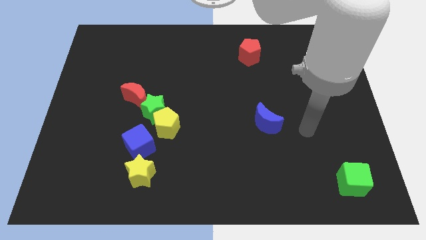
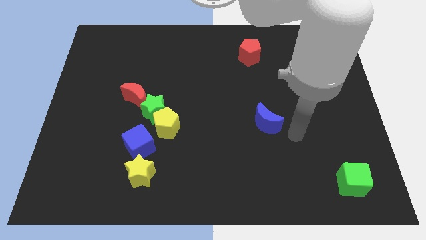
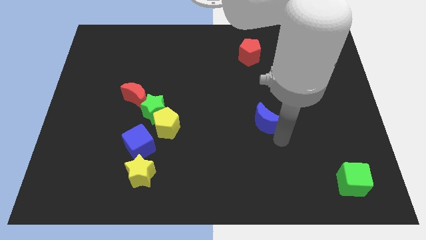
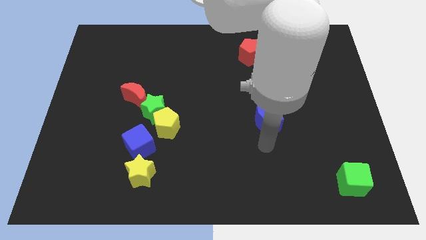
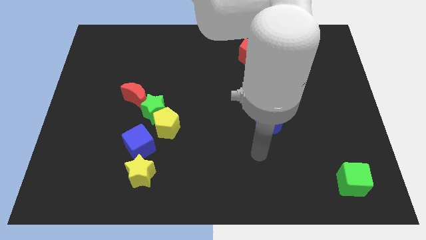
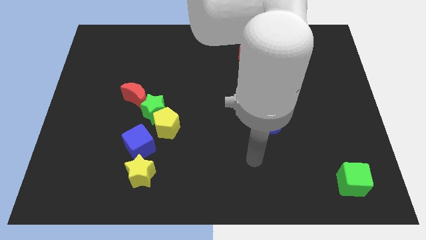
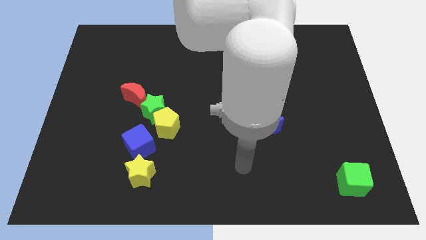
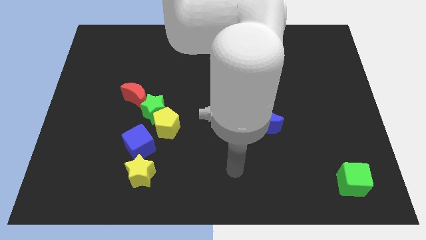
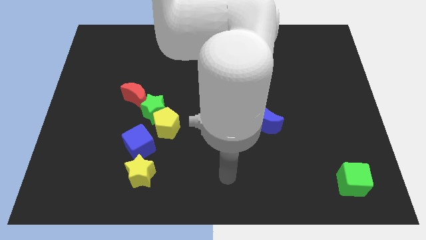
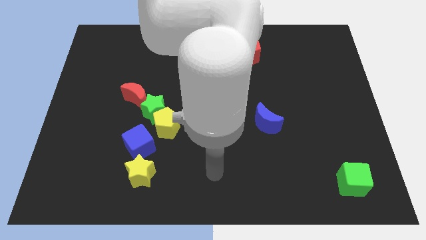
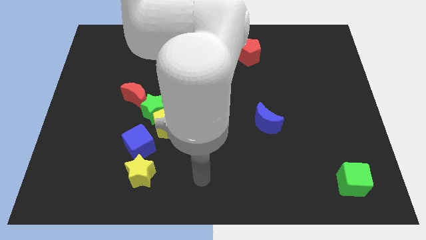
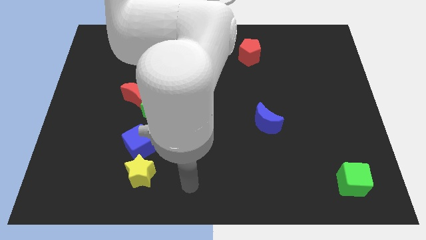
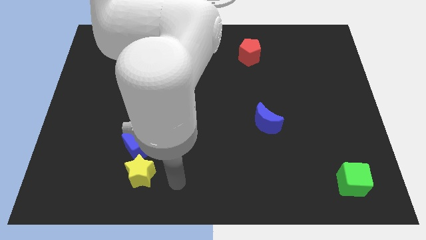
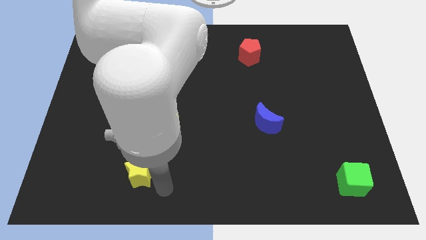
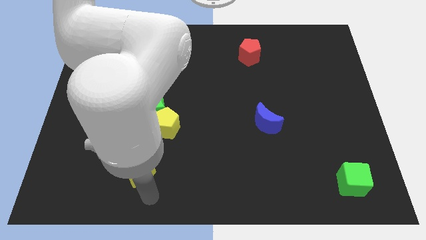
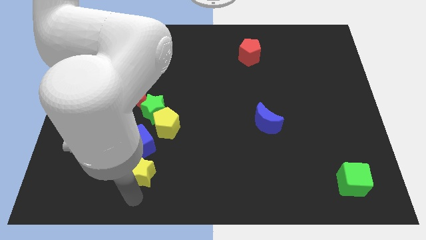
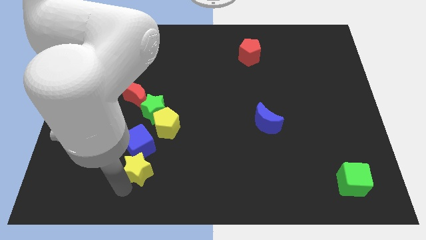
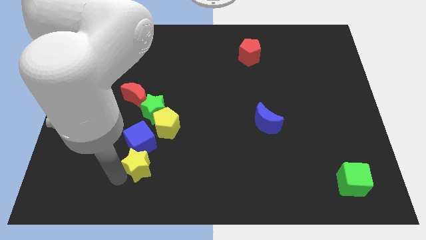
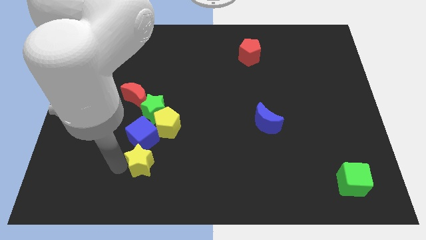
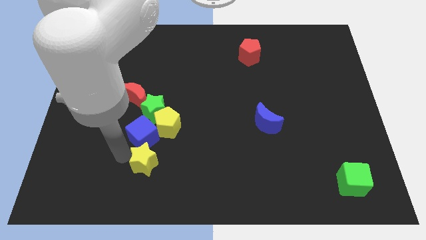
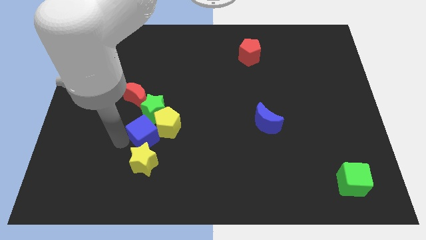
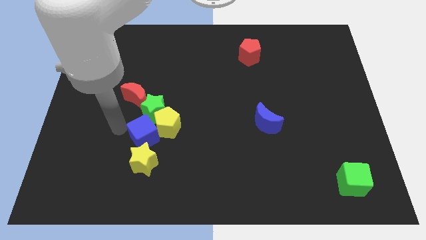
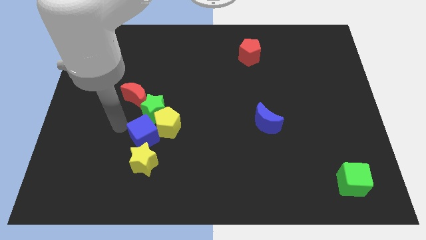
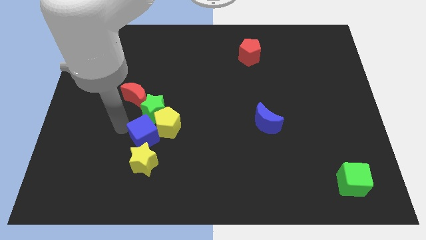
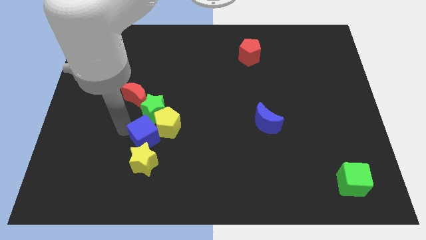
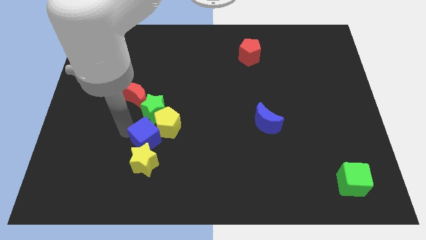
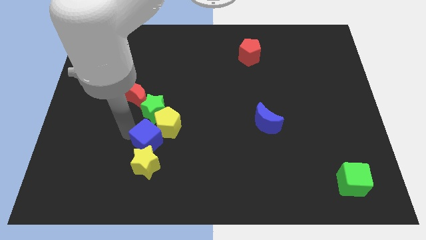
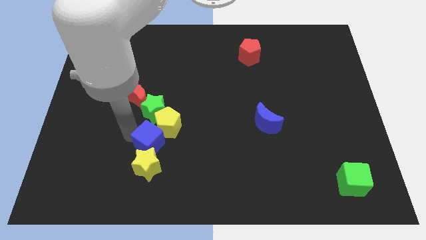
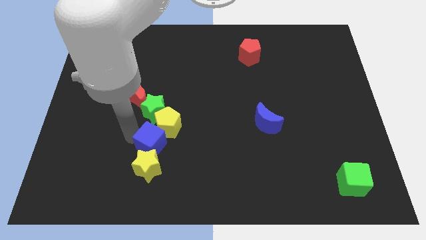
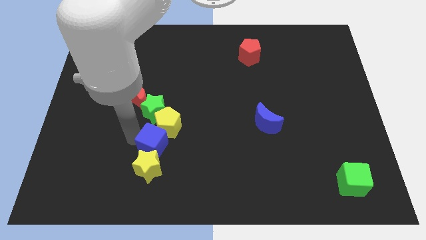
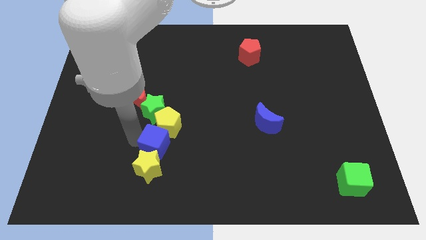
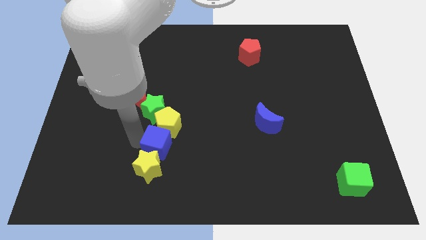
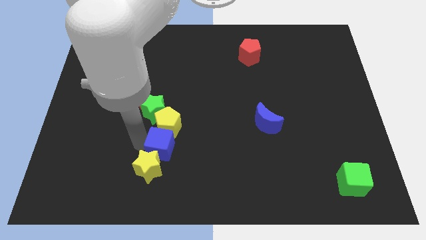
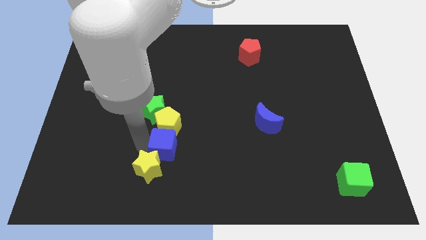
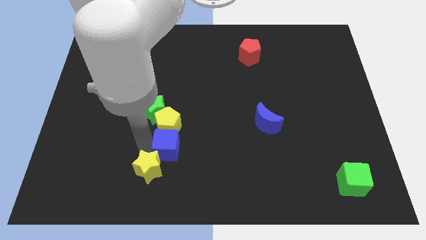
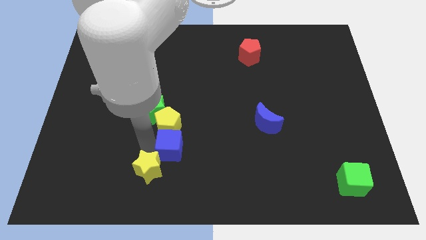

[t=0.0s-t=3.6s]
move the blue cube to the right slightly

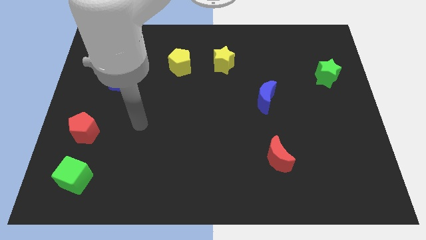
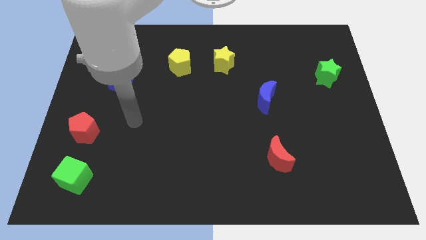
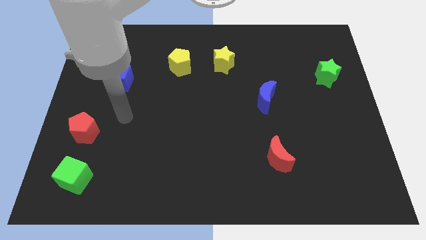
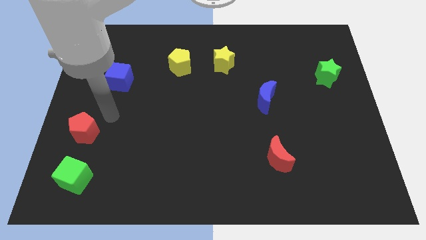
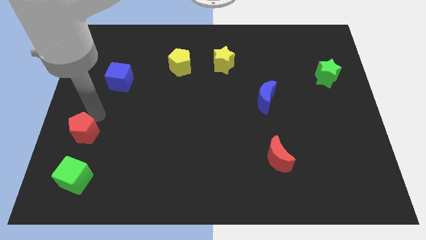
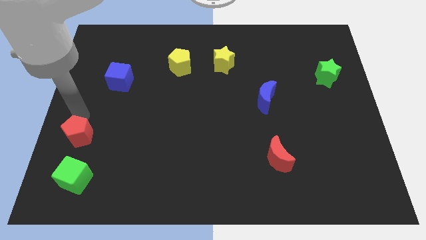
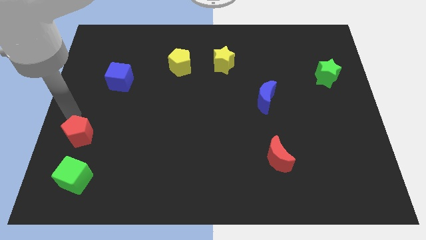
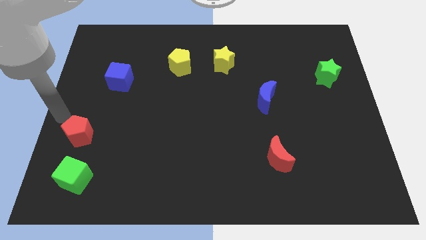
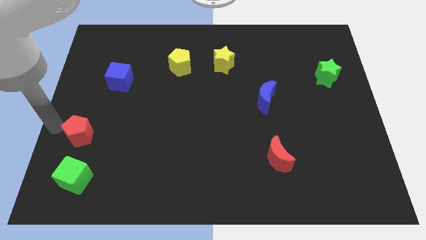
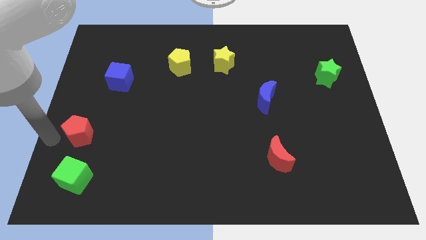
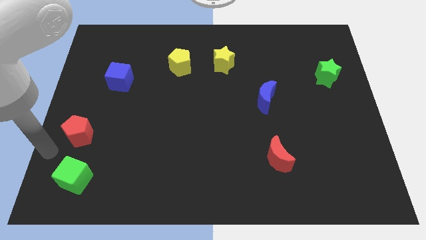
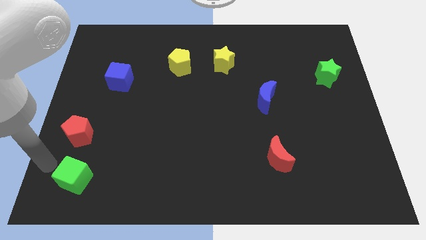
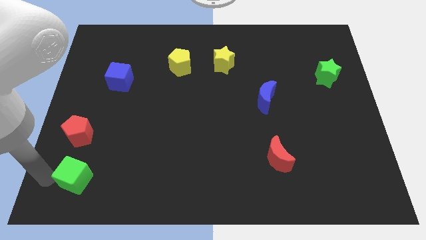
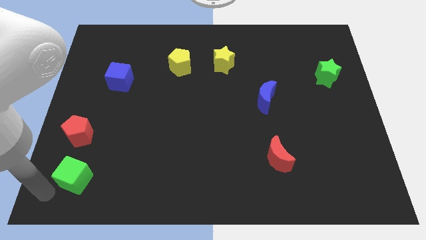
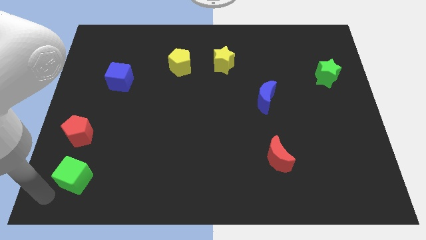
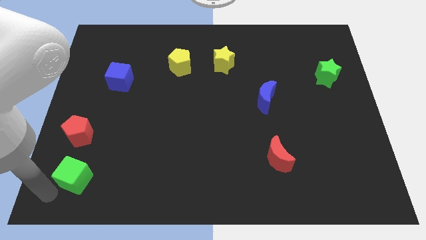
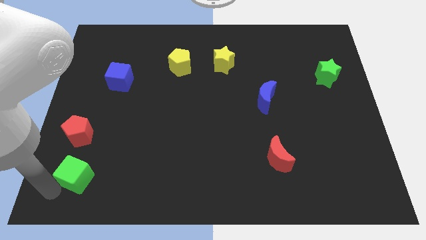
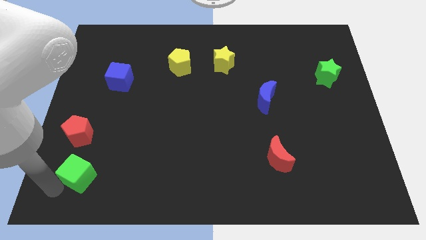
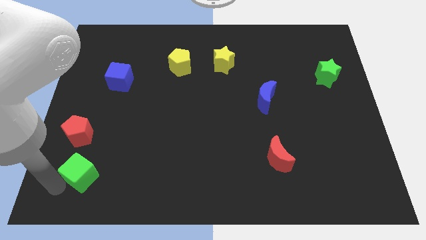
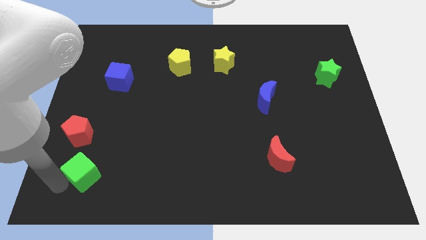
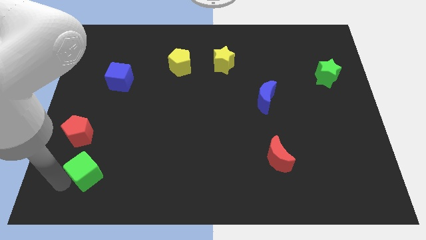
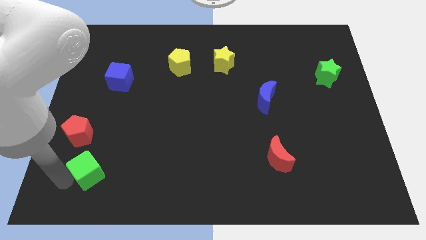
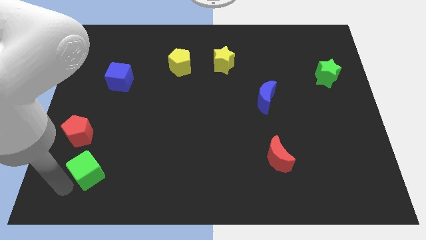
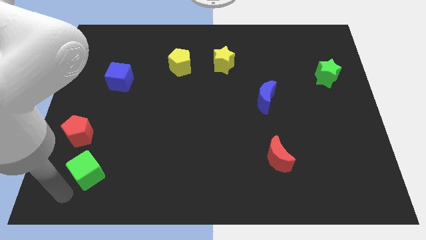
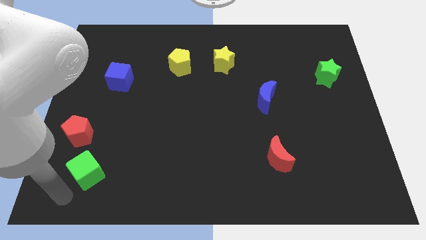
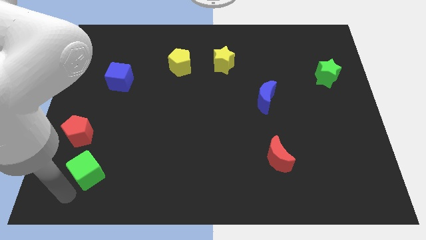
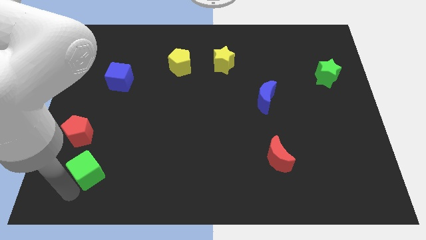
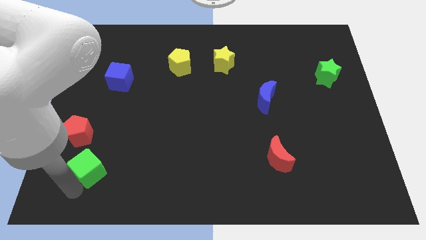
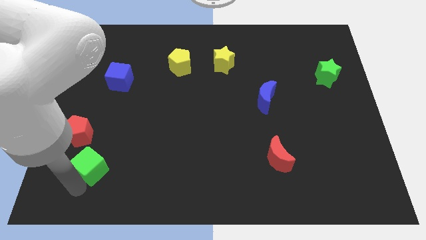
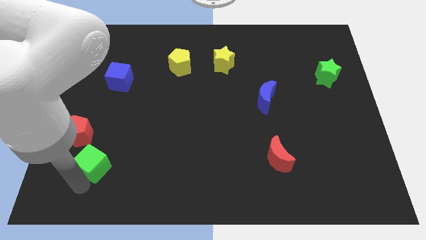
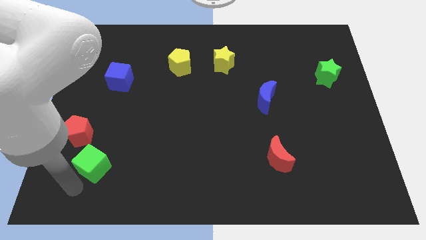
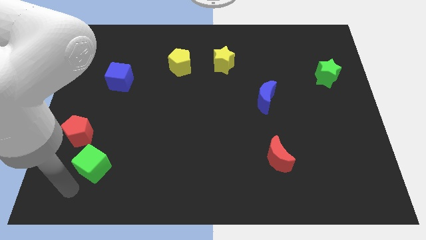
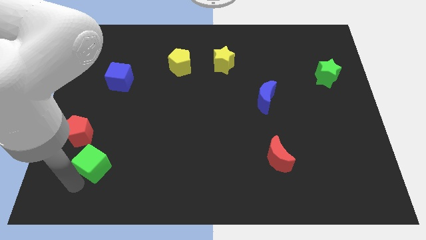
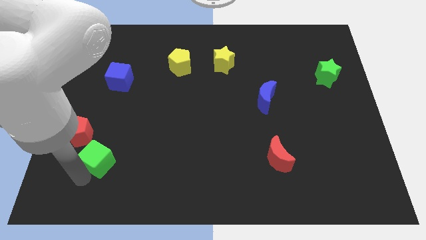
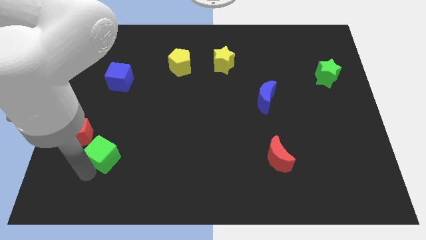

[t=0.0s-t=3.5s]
slightly move the green cube upwards and to the right

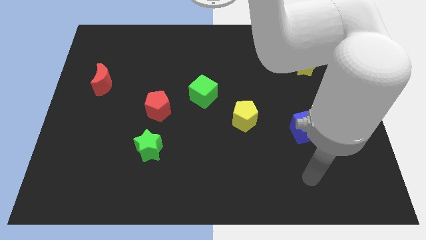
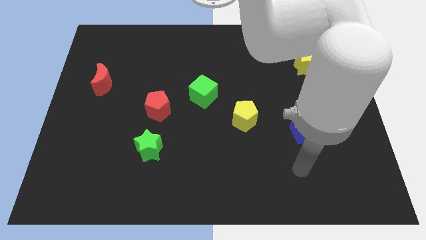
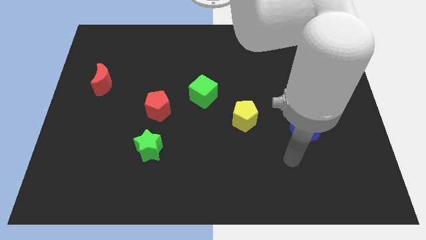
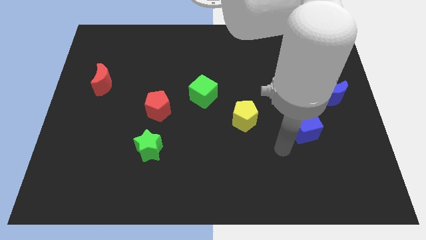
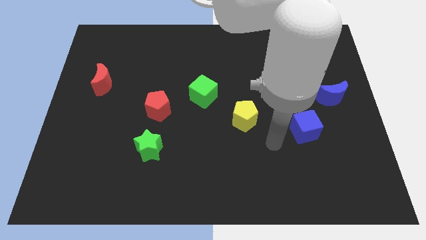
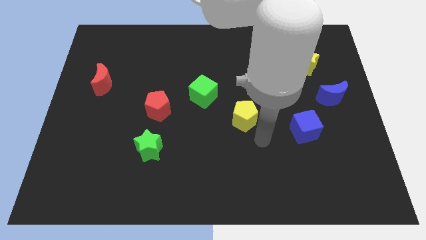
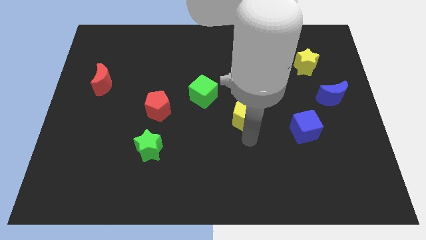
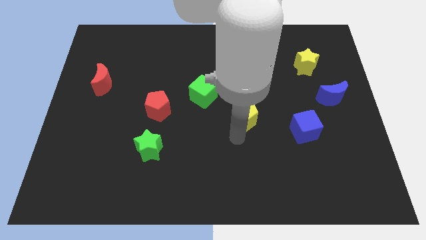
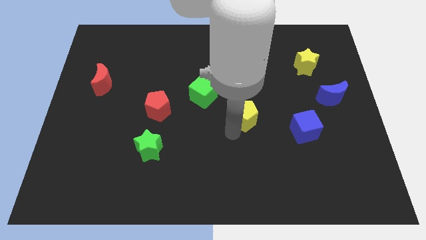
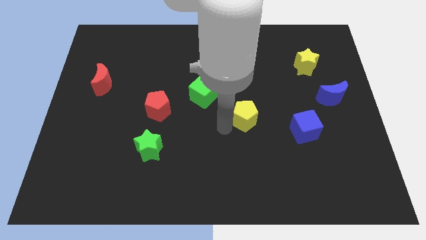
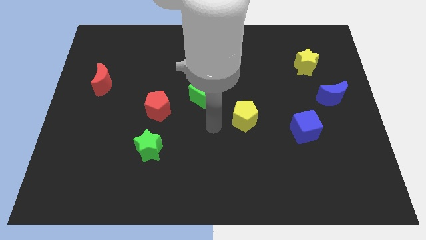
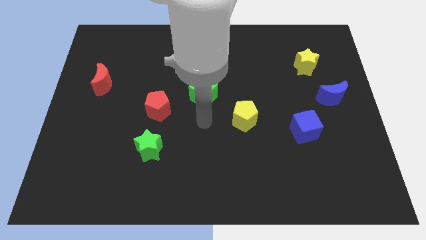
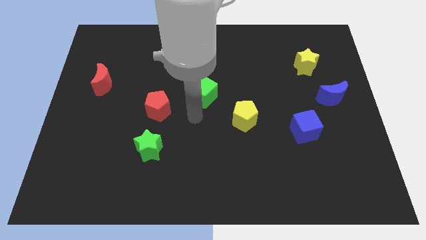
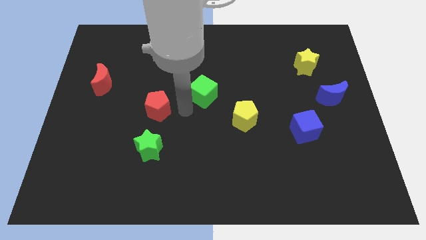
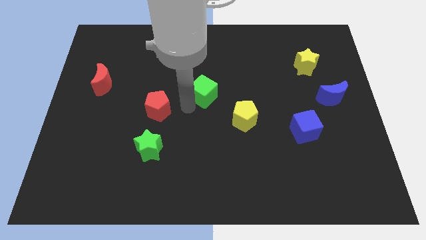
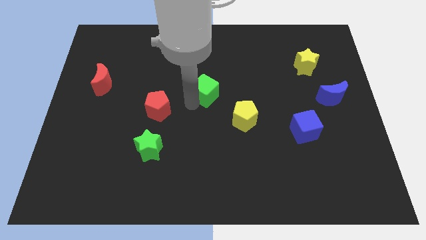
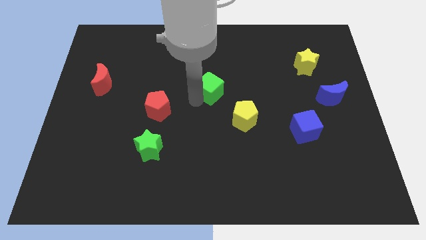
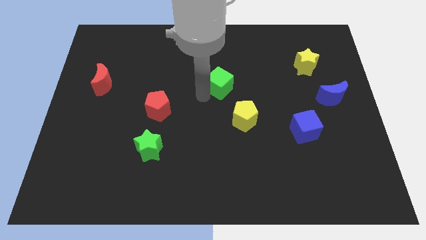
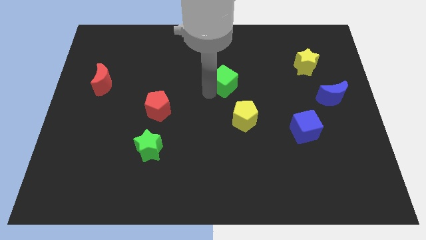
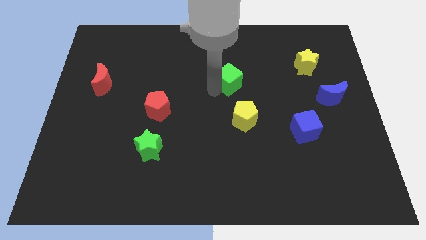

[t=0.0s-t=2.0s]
push the green cube a bit upwards and then right
